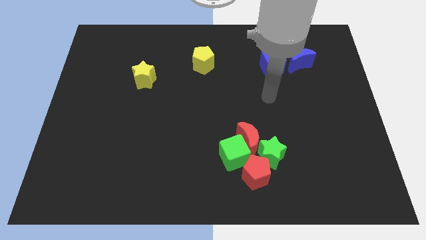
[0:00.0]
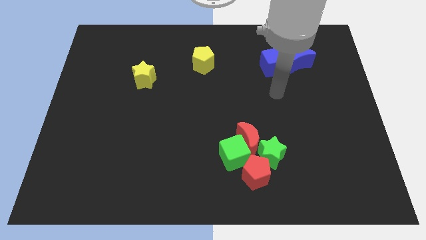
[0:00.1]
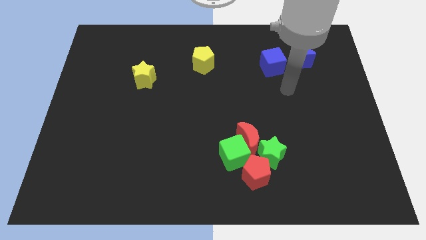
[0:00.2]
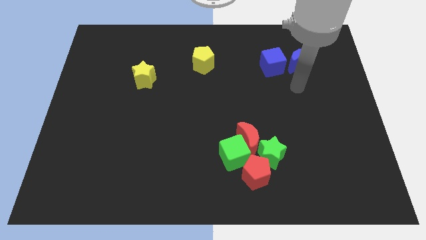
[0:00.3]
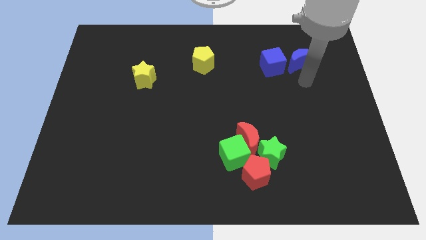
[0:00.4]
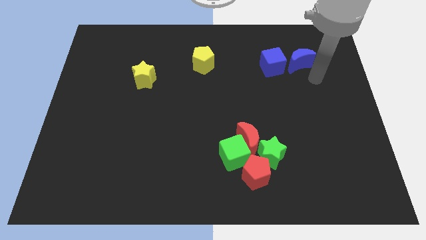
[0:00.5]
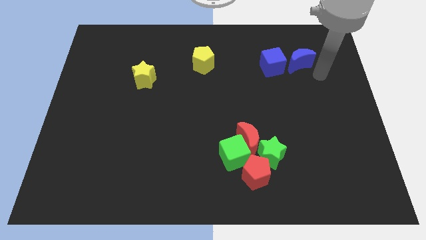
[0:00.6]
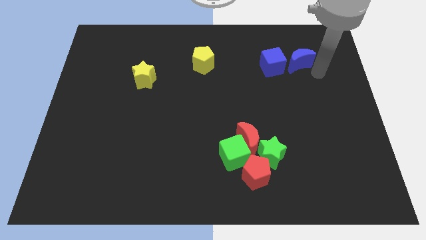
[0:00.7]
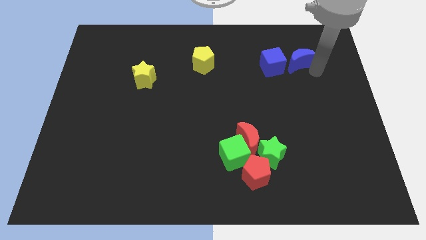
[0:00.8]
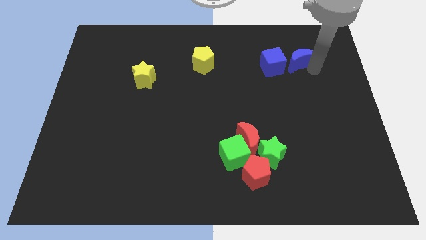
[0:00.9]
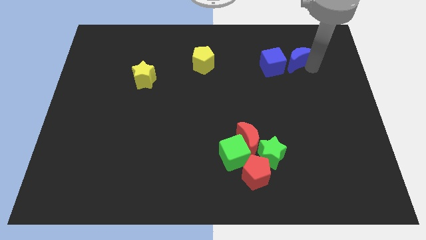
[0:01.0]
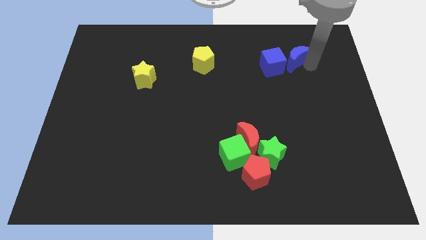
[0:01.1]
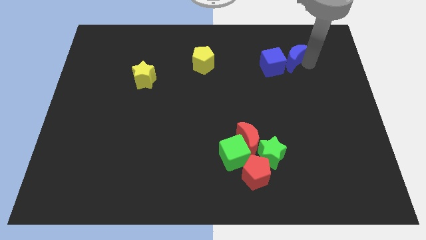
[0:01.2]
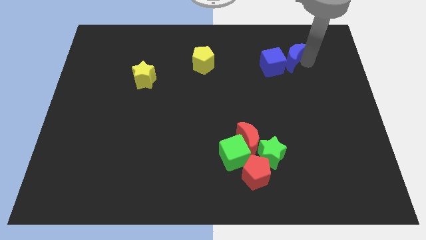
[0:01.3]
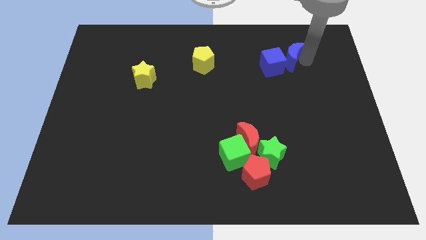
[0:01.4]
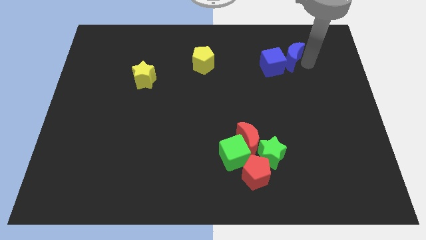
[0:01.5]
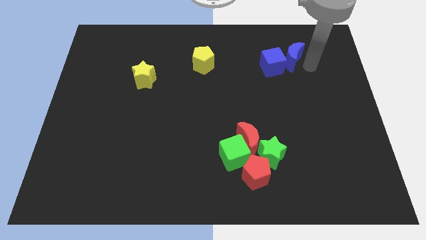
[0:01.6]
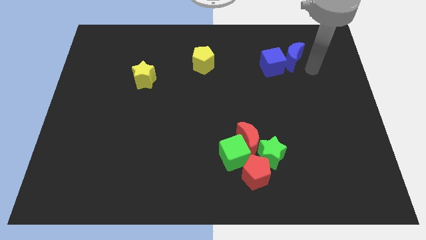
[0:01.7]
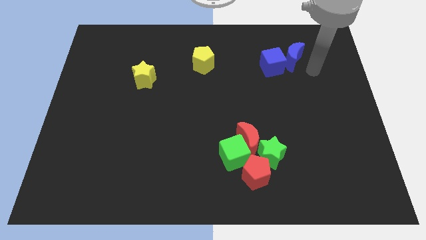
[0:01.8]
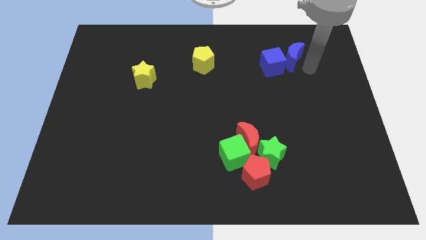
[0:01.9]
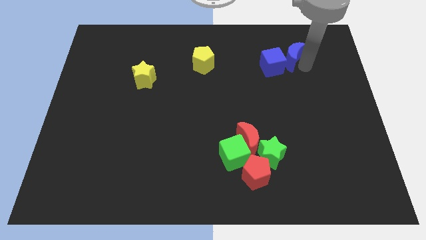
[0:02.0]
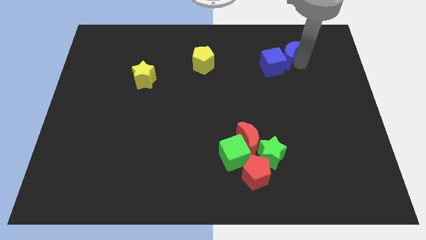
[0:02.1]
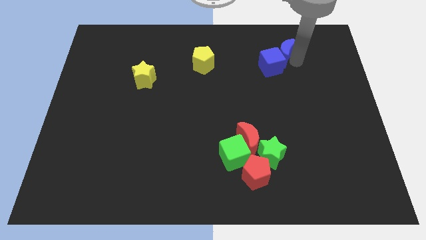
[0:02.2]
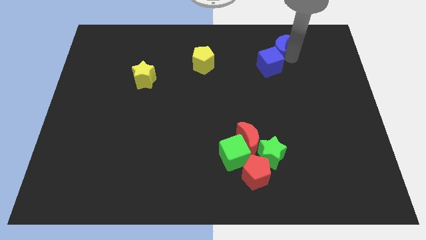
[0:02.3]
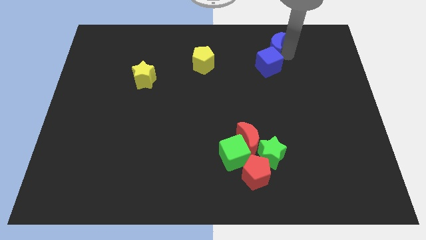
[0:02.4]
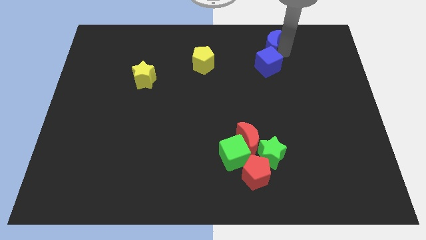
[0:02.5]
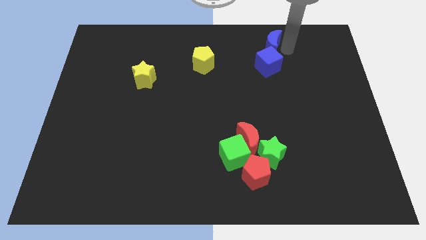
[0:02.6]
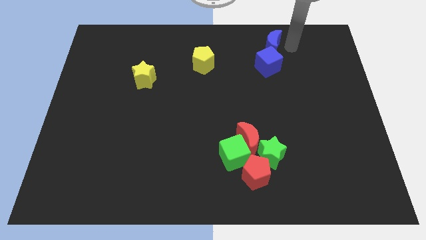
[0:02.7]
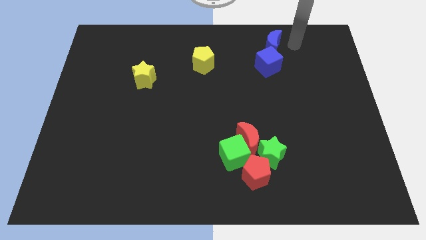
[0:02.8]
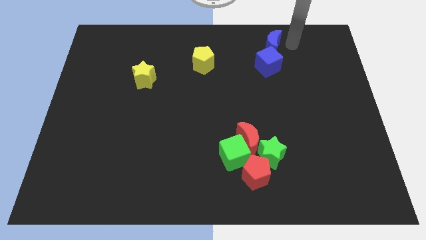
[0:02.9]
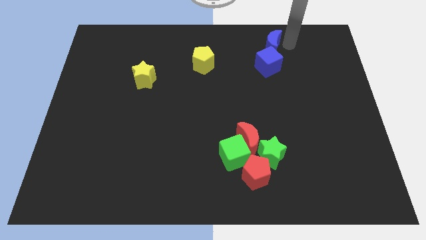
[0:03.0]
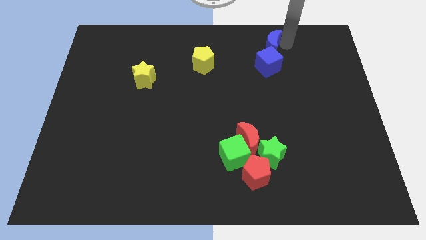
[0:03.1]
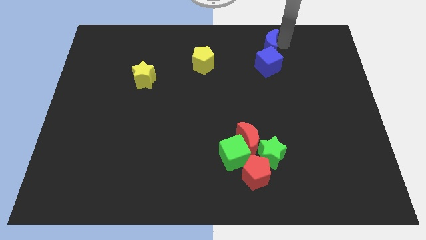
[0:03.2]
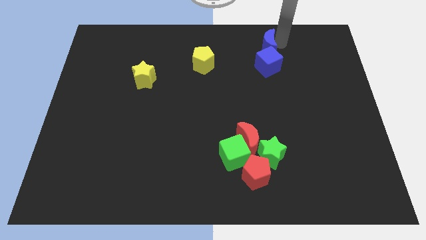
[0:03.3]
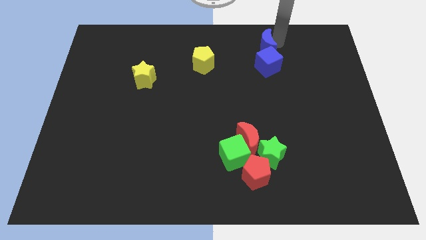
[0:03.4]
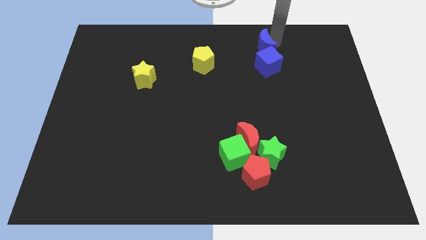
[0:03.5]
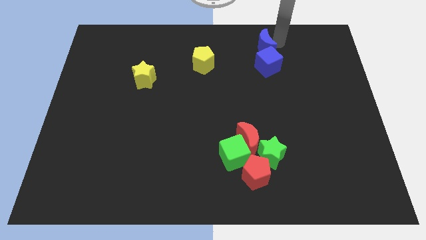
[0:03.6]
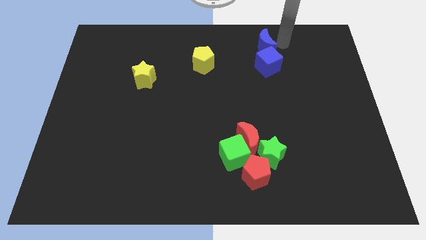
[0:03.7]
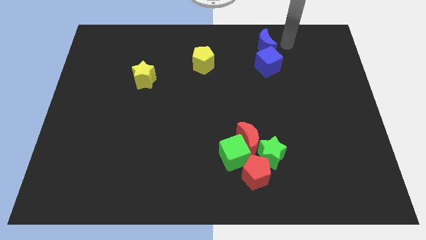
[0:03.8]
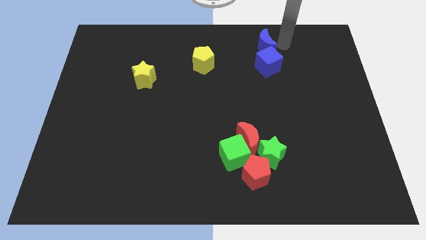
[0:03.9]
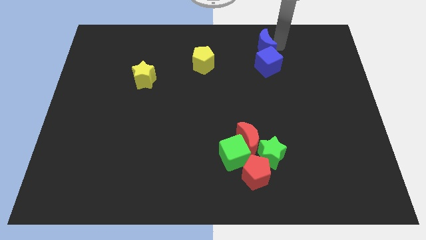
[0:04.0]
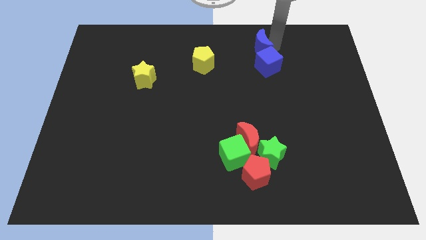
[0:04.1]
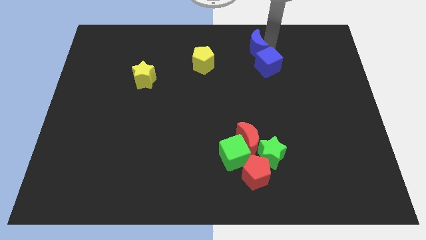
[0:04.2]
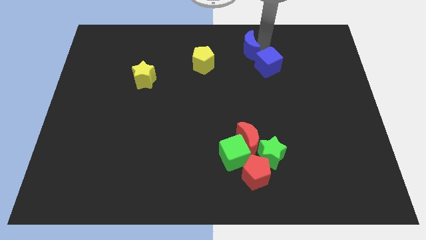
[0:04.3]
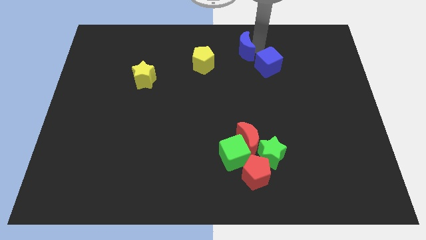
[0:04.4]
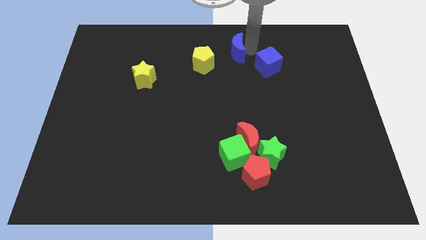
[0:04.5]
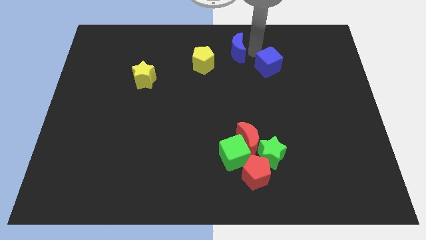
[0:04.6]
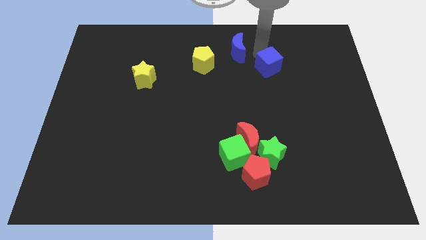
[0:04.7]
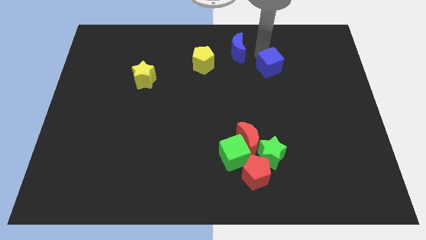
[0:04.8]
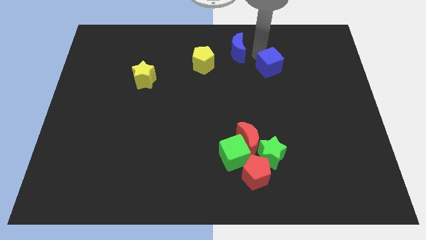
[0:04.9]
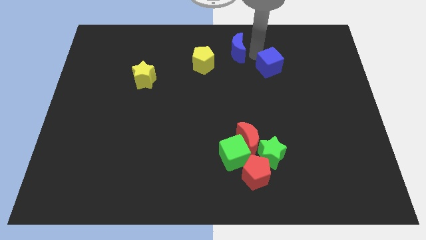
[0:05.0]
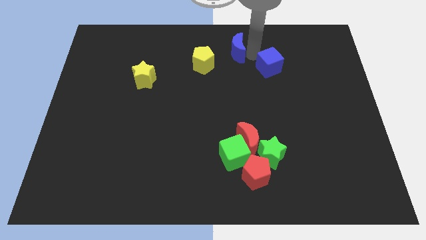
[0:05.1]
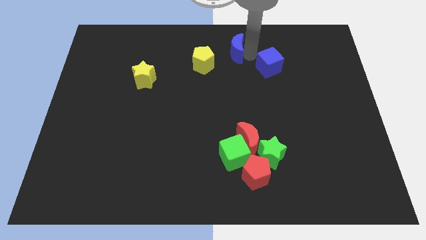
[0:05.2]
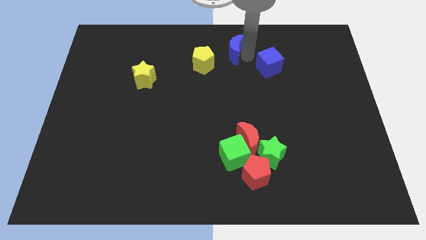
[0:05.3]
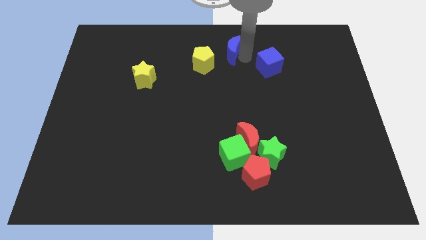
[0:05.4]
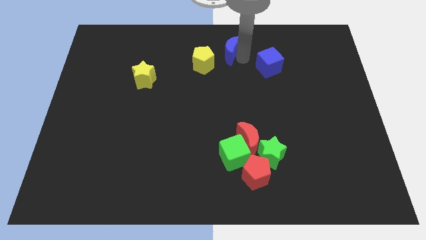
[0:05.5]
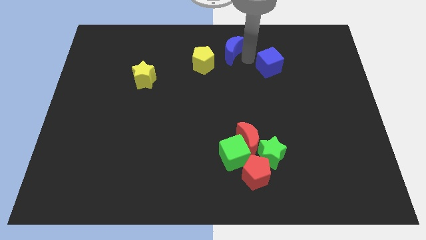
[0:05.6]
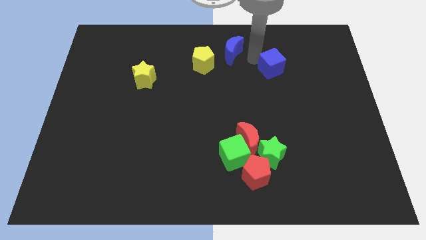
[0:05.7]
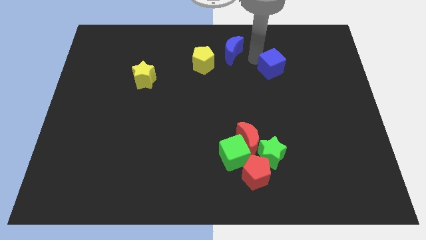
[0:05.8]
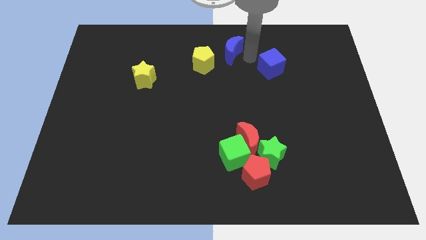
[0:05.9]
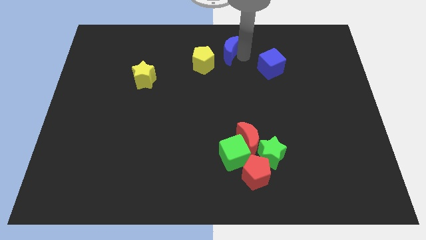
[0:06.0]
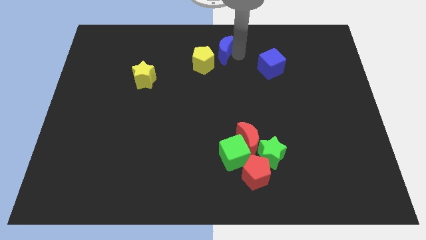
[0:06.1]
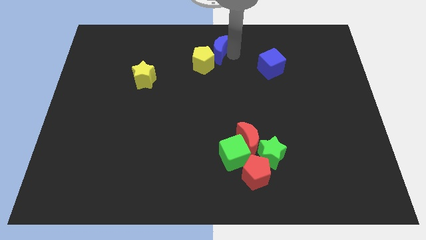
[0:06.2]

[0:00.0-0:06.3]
slide the blue moon to the left

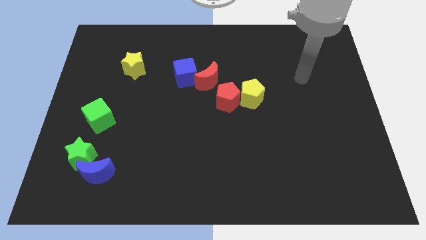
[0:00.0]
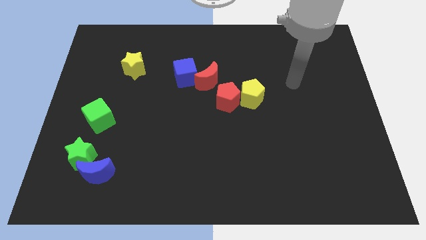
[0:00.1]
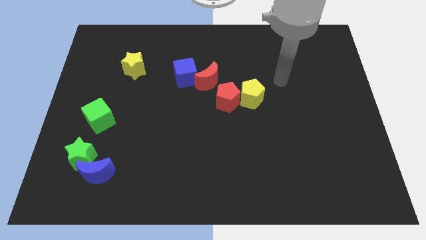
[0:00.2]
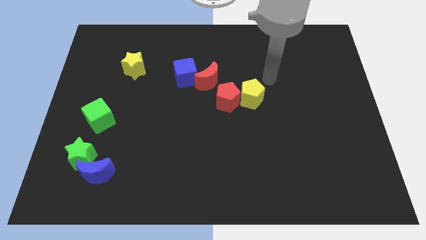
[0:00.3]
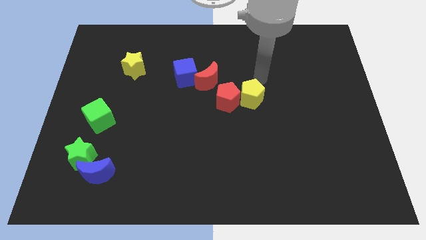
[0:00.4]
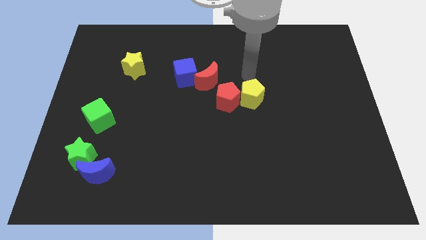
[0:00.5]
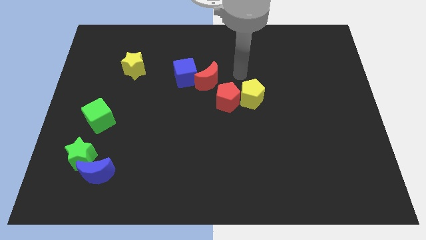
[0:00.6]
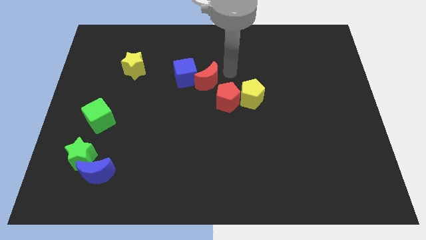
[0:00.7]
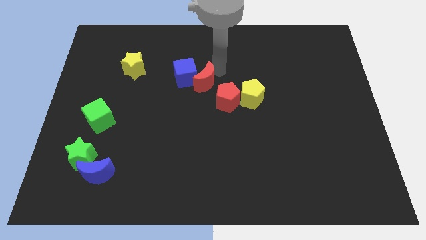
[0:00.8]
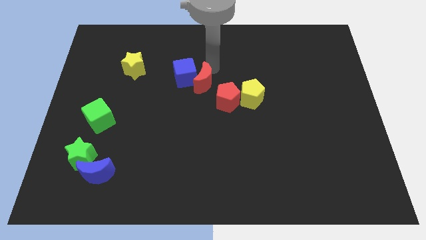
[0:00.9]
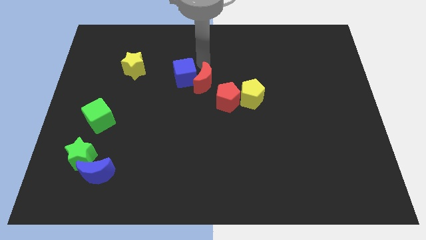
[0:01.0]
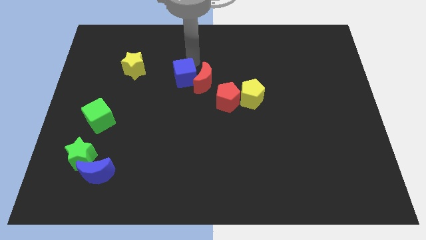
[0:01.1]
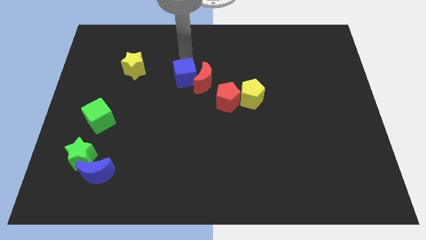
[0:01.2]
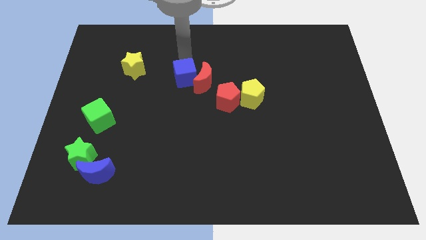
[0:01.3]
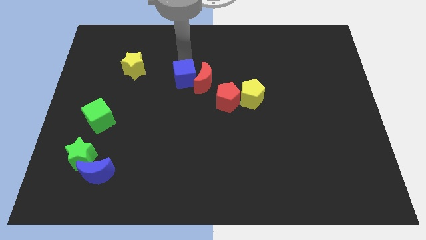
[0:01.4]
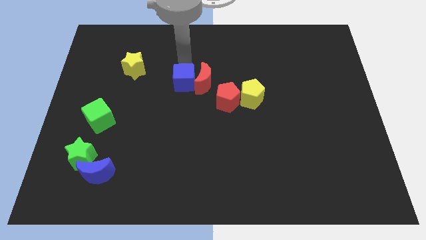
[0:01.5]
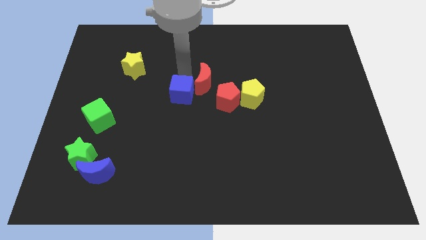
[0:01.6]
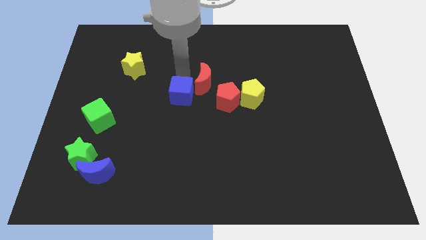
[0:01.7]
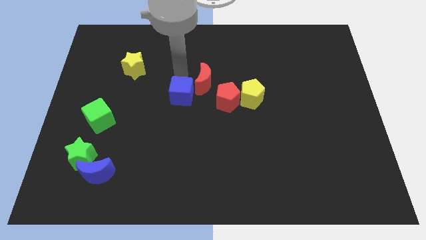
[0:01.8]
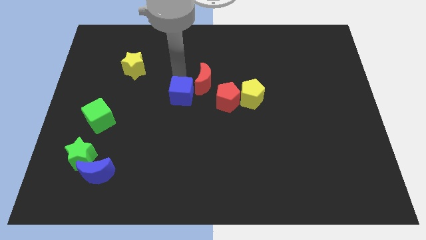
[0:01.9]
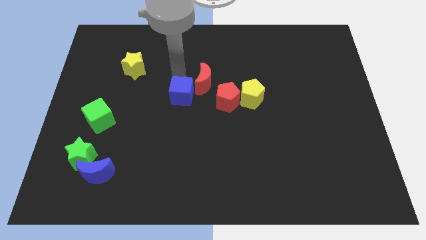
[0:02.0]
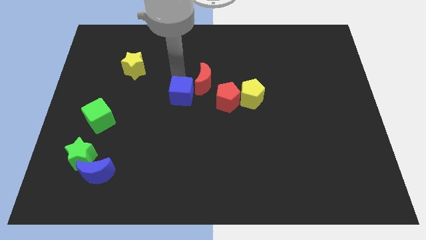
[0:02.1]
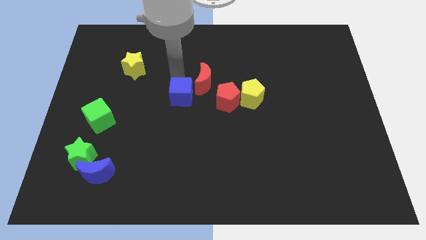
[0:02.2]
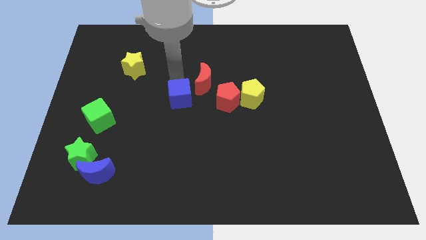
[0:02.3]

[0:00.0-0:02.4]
push the blue cube a little bit down
